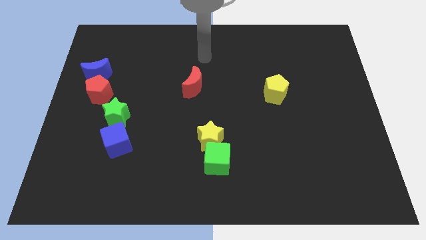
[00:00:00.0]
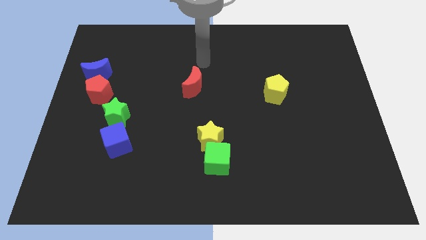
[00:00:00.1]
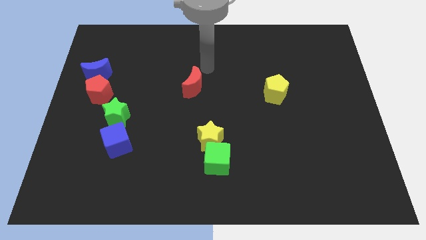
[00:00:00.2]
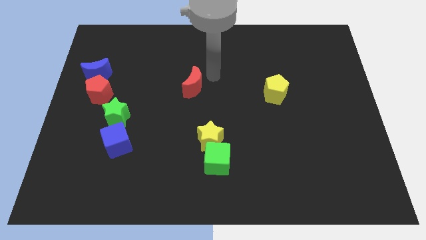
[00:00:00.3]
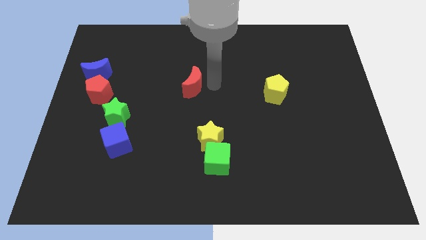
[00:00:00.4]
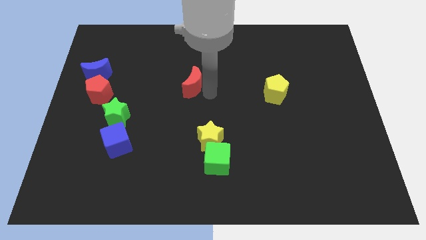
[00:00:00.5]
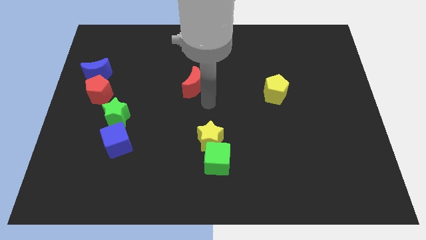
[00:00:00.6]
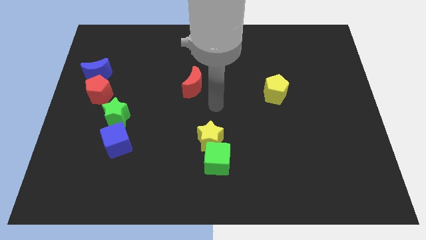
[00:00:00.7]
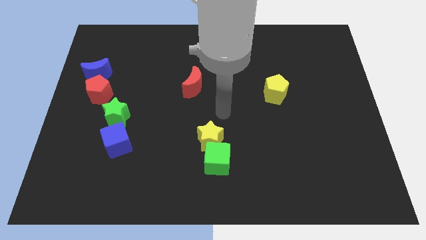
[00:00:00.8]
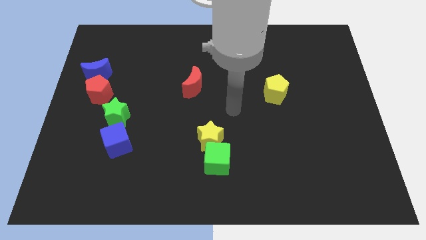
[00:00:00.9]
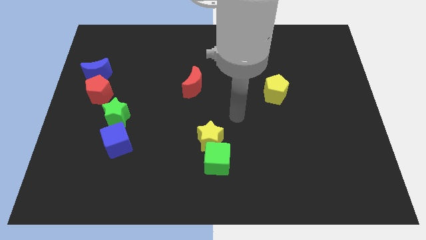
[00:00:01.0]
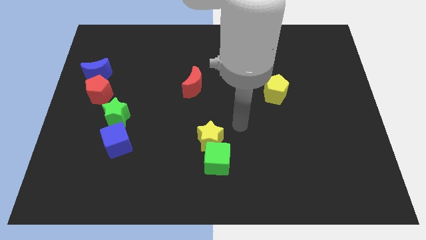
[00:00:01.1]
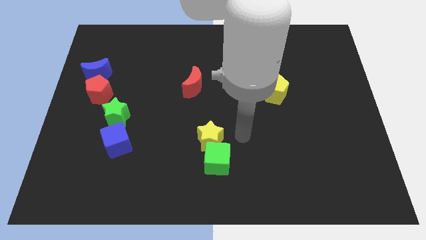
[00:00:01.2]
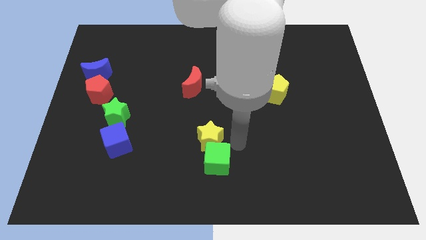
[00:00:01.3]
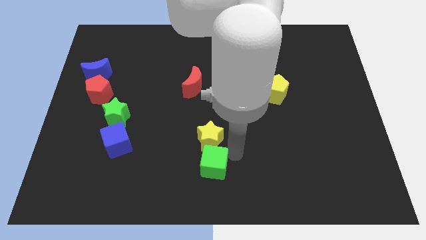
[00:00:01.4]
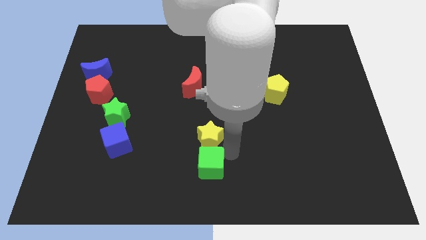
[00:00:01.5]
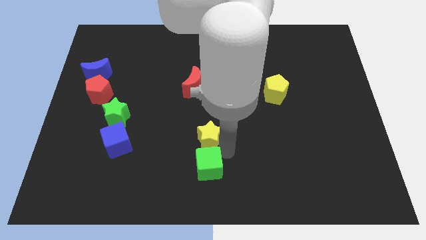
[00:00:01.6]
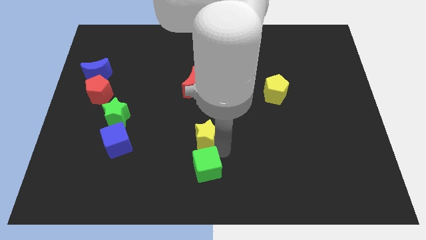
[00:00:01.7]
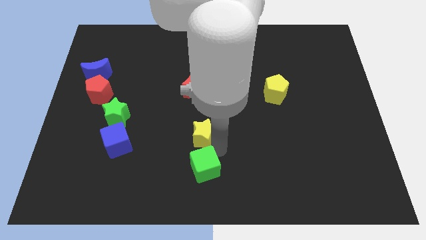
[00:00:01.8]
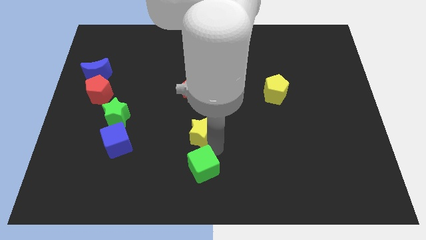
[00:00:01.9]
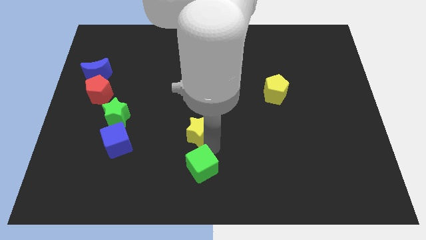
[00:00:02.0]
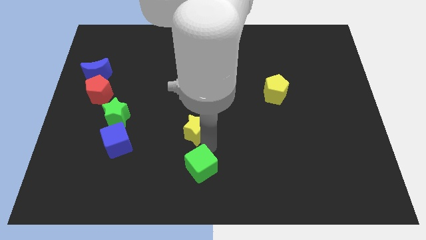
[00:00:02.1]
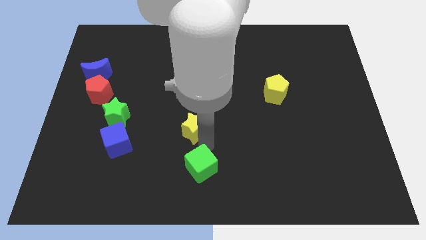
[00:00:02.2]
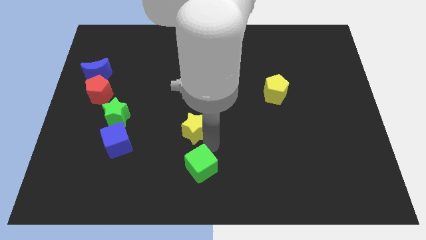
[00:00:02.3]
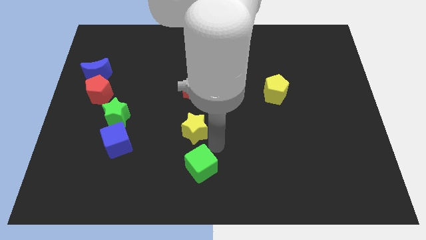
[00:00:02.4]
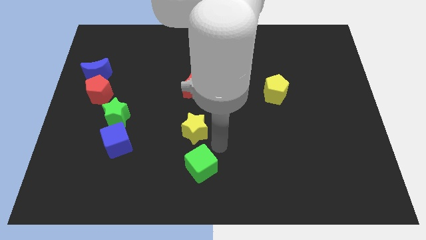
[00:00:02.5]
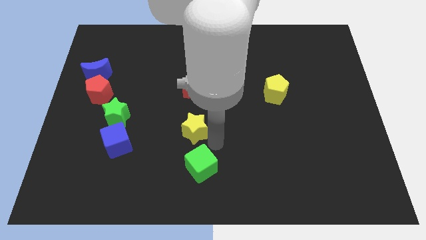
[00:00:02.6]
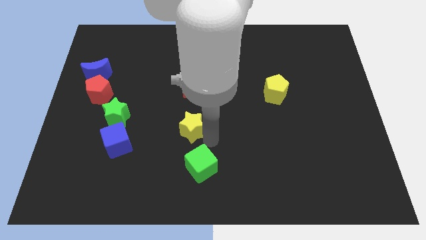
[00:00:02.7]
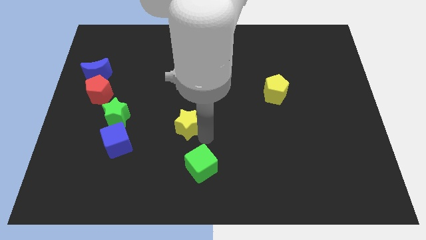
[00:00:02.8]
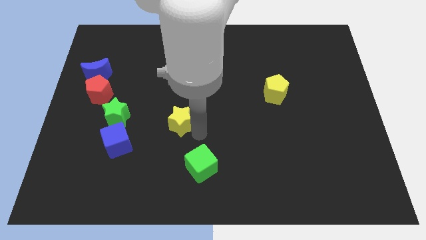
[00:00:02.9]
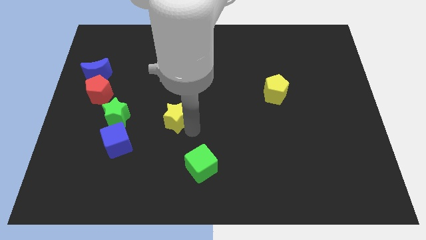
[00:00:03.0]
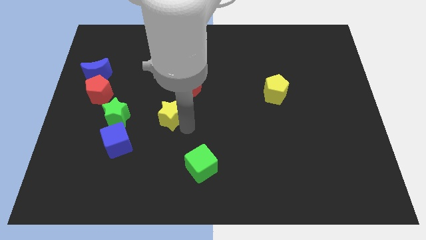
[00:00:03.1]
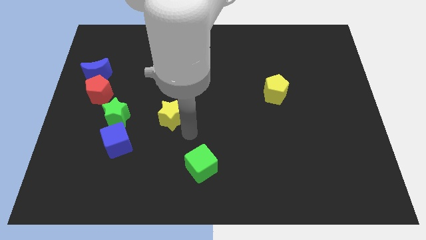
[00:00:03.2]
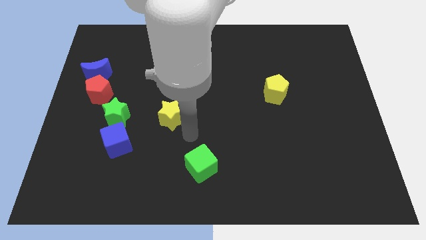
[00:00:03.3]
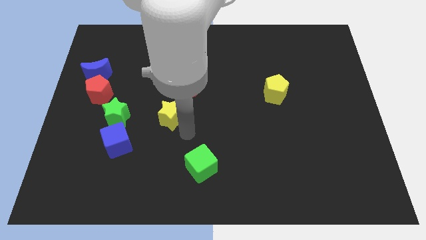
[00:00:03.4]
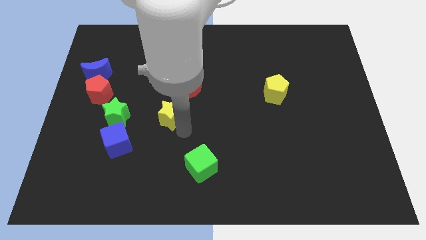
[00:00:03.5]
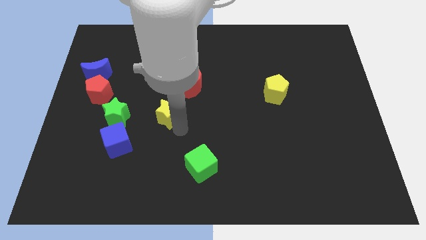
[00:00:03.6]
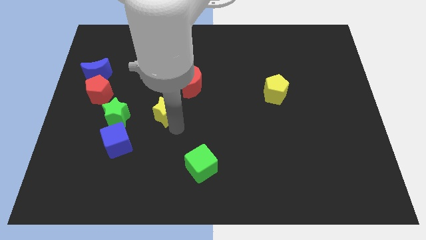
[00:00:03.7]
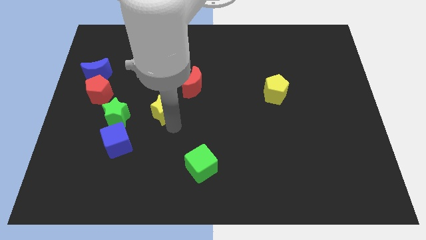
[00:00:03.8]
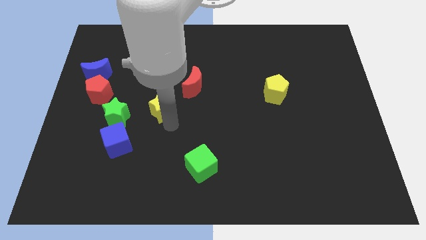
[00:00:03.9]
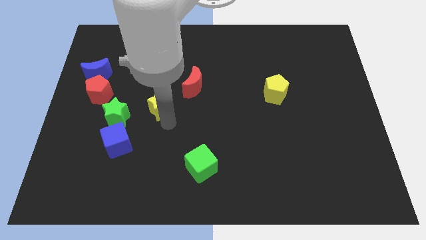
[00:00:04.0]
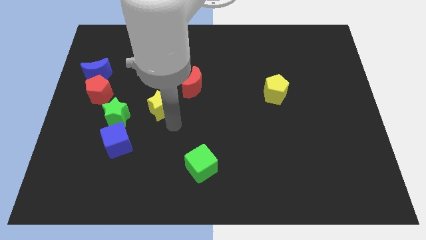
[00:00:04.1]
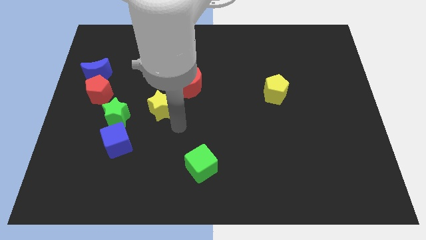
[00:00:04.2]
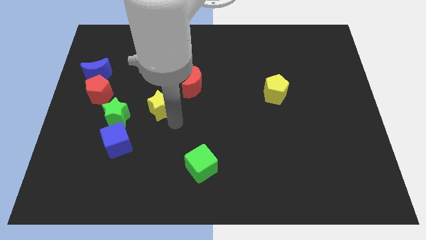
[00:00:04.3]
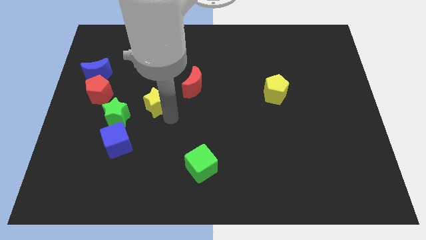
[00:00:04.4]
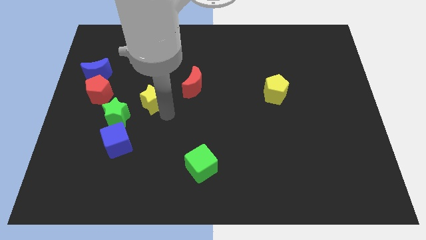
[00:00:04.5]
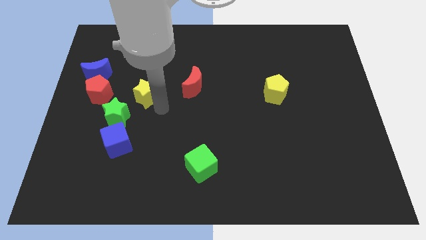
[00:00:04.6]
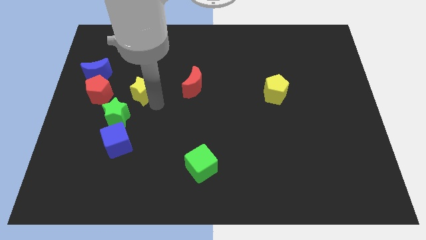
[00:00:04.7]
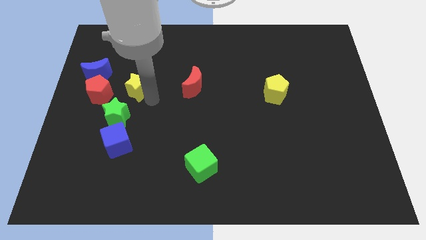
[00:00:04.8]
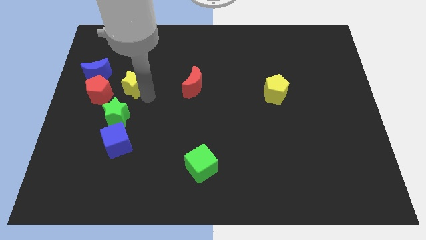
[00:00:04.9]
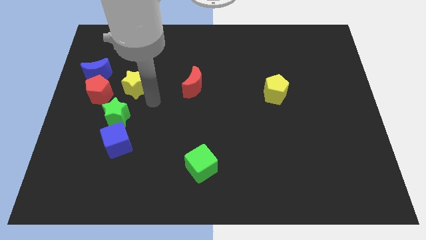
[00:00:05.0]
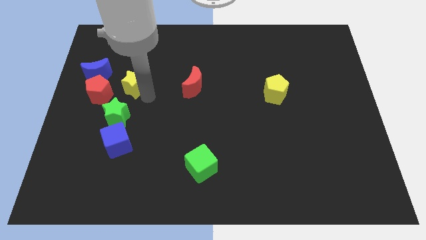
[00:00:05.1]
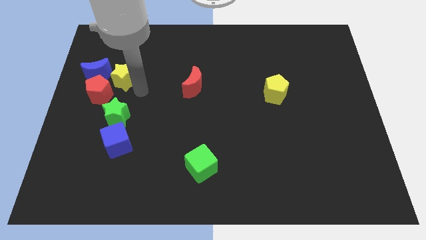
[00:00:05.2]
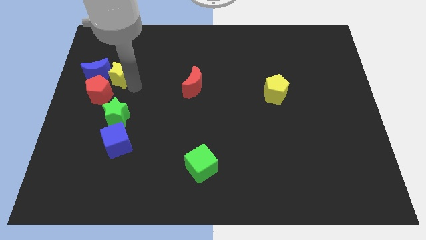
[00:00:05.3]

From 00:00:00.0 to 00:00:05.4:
slide the yellow star to the top of the red pentagon

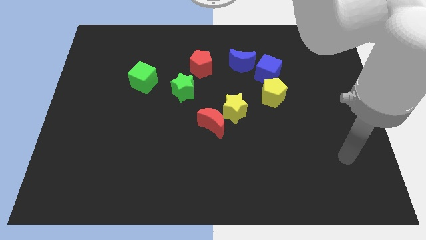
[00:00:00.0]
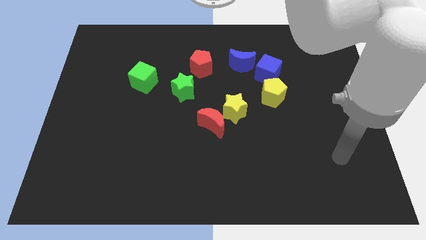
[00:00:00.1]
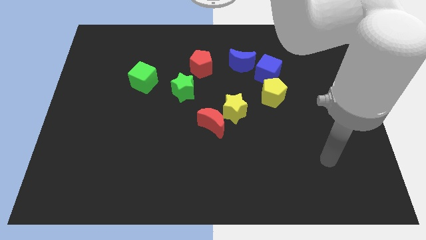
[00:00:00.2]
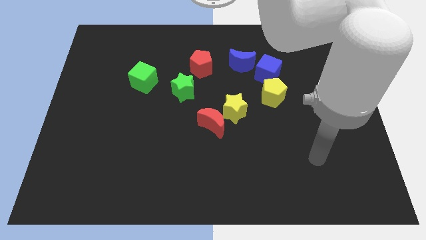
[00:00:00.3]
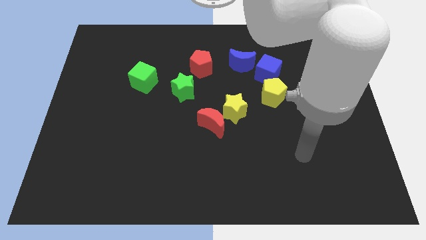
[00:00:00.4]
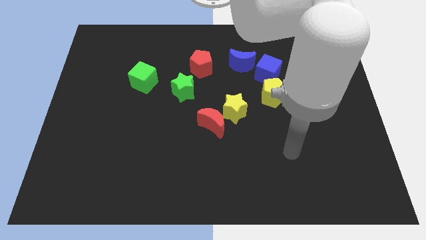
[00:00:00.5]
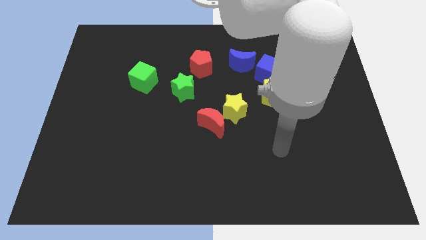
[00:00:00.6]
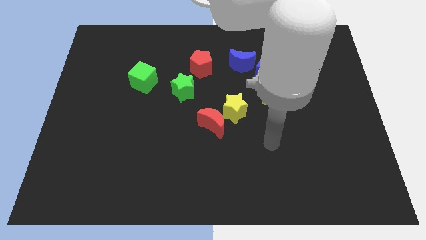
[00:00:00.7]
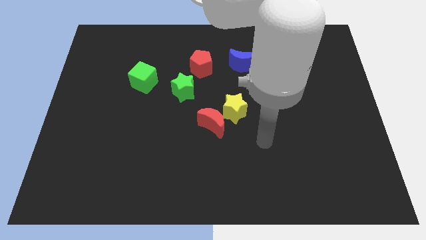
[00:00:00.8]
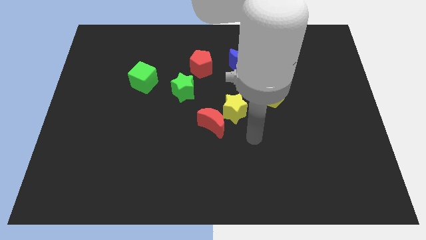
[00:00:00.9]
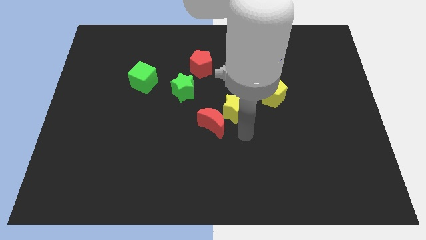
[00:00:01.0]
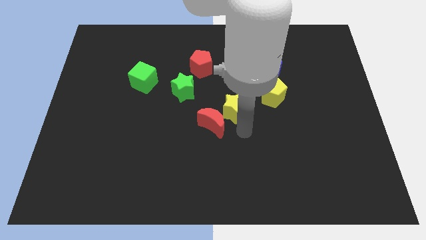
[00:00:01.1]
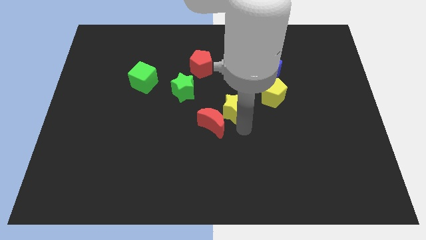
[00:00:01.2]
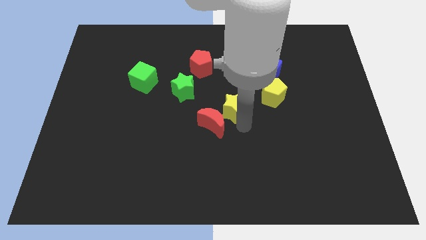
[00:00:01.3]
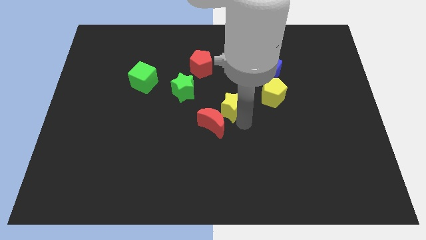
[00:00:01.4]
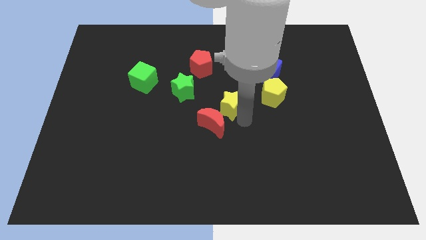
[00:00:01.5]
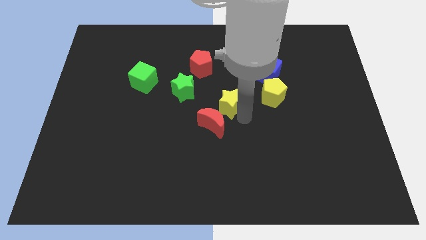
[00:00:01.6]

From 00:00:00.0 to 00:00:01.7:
slide the yellow star to the right side of the green star
